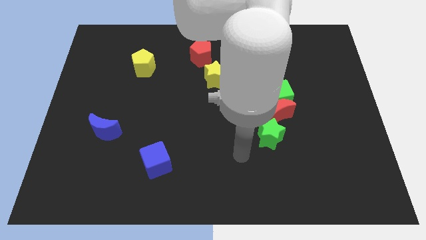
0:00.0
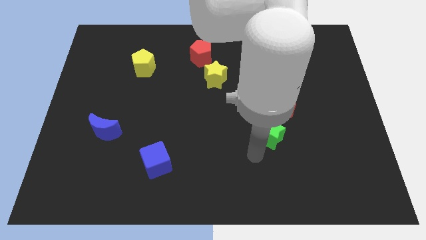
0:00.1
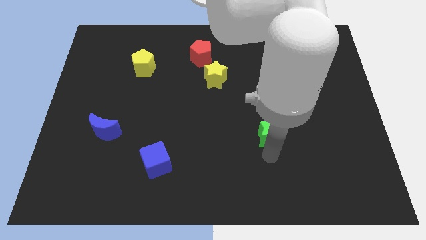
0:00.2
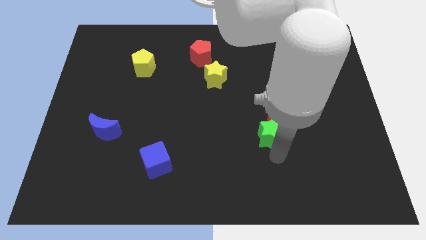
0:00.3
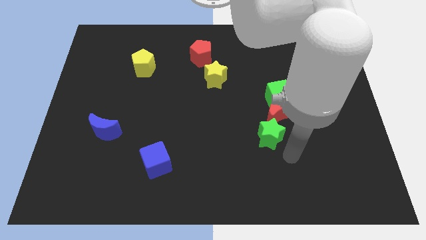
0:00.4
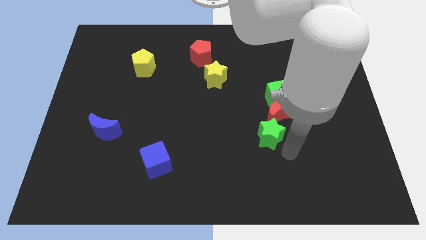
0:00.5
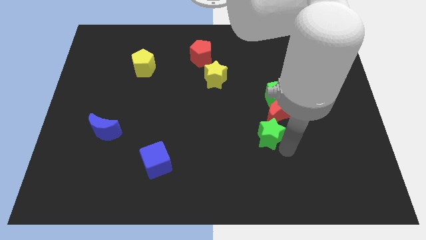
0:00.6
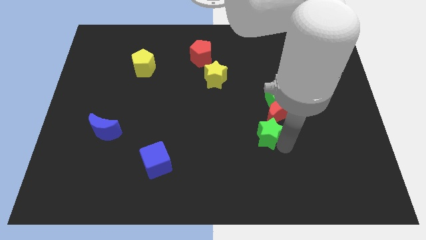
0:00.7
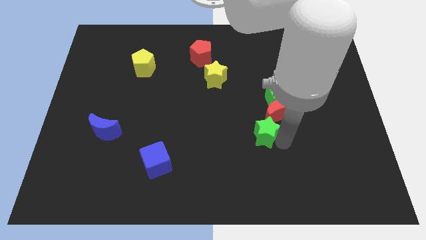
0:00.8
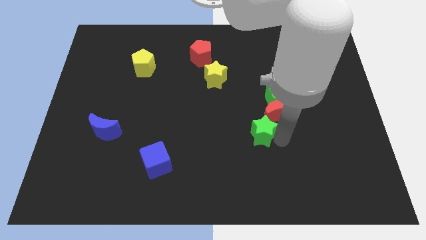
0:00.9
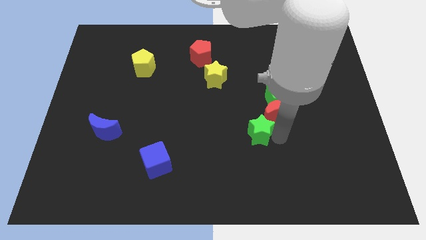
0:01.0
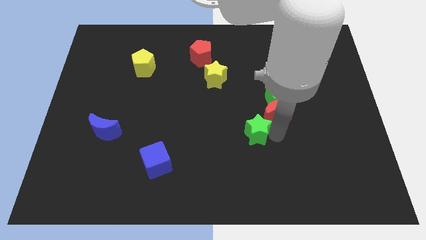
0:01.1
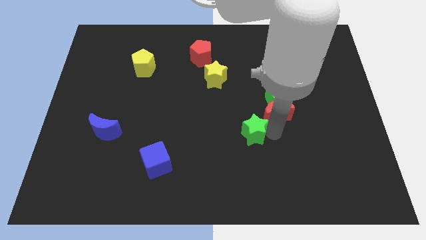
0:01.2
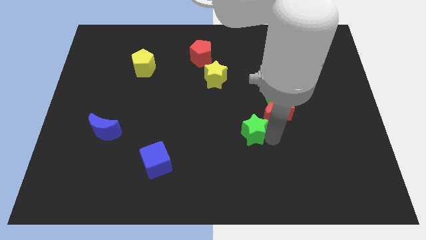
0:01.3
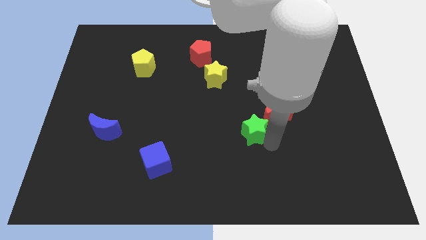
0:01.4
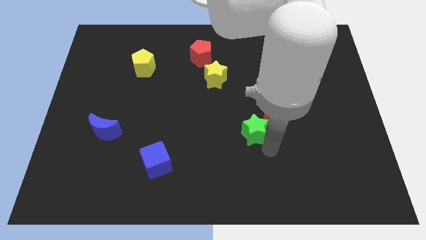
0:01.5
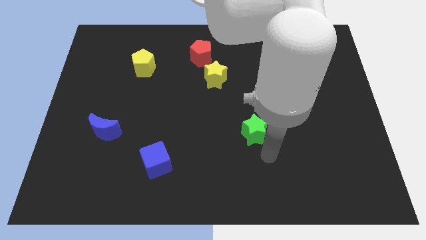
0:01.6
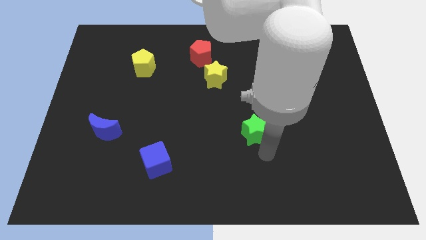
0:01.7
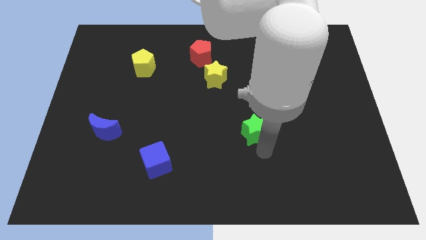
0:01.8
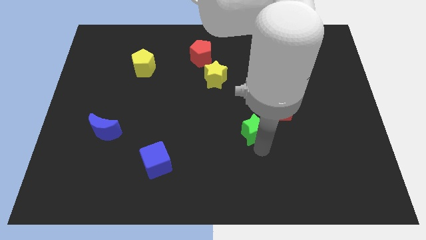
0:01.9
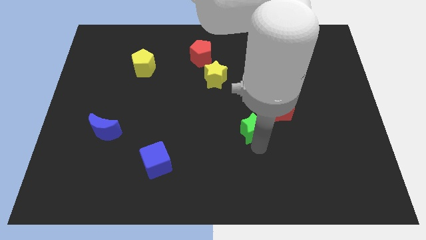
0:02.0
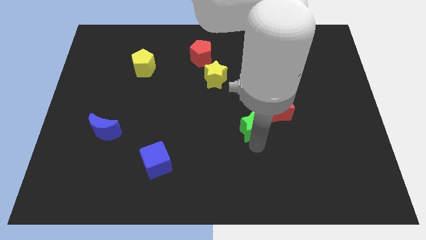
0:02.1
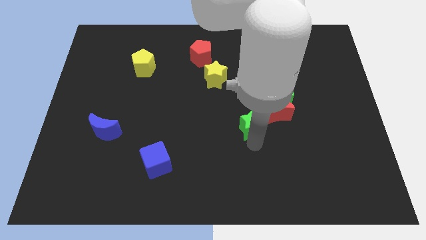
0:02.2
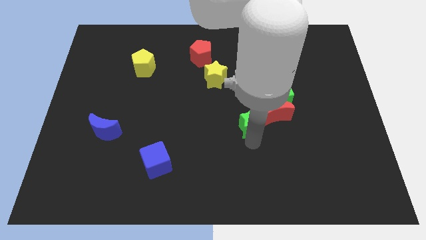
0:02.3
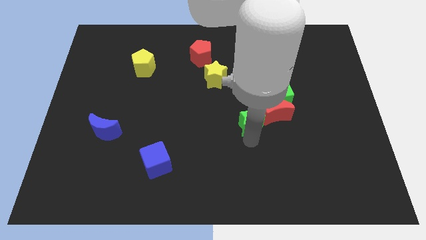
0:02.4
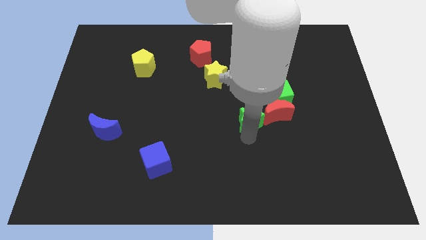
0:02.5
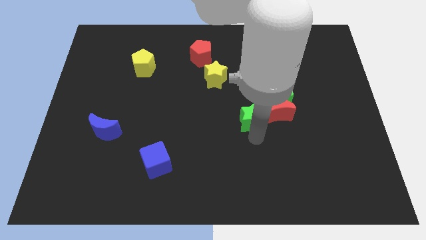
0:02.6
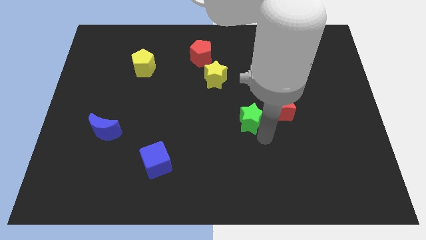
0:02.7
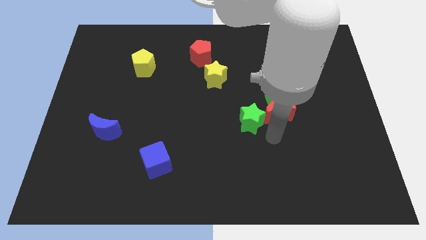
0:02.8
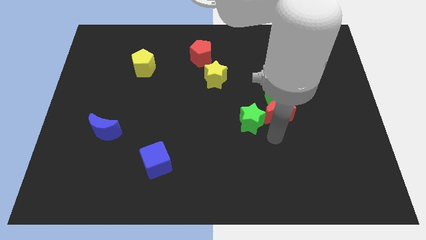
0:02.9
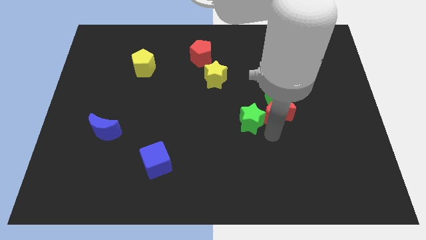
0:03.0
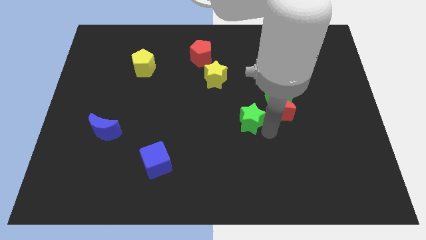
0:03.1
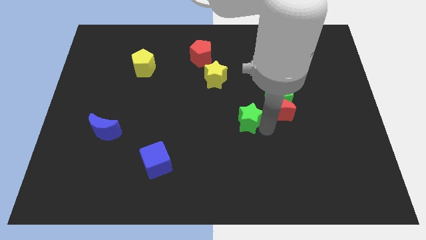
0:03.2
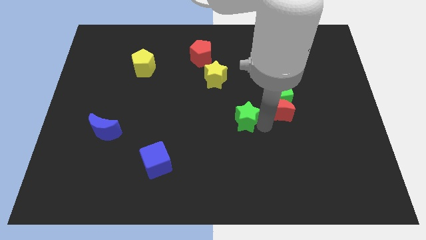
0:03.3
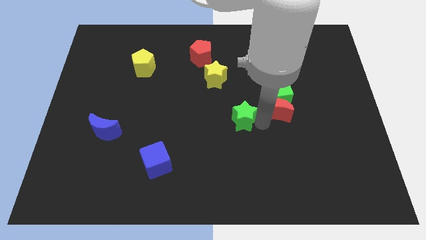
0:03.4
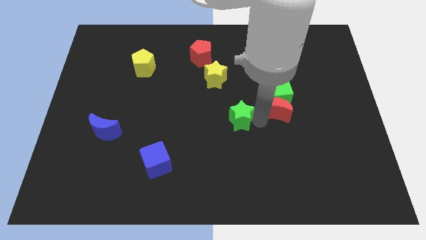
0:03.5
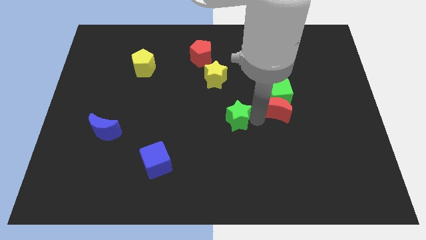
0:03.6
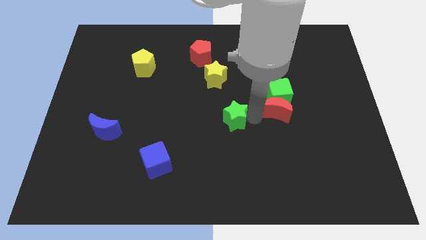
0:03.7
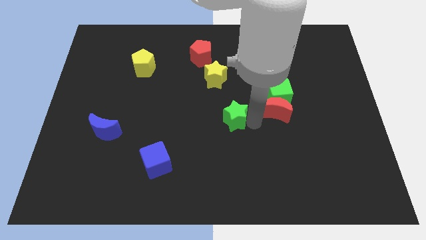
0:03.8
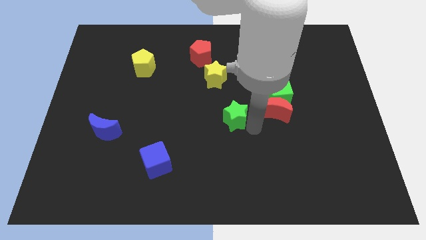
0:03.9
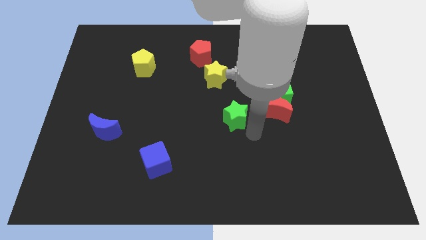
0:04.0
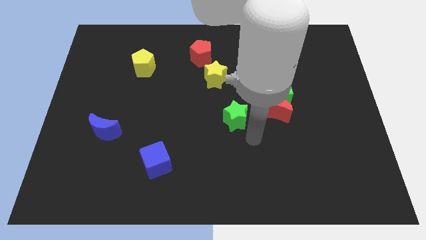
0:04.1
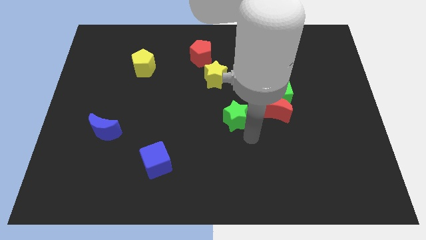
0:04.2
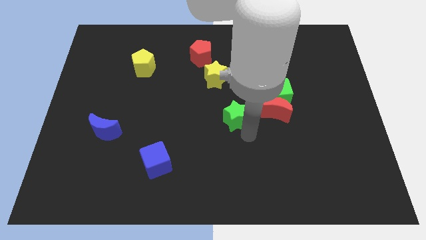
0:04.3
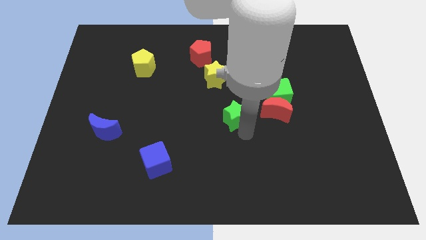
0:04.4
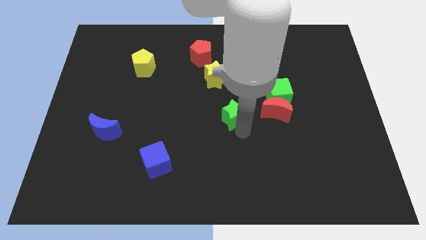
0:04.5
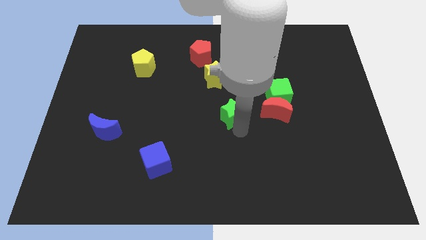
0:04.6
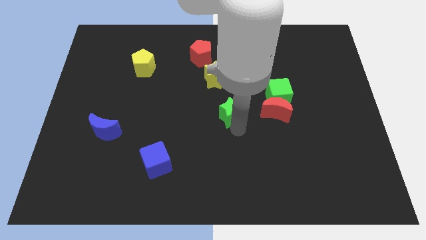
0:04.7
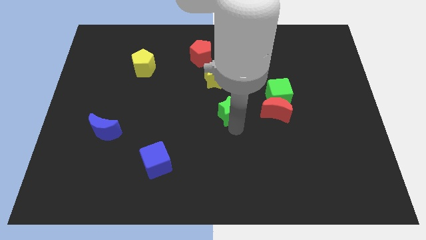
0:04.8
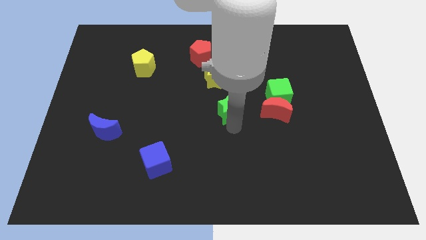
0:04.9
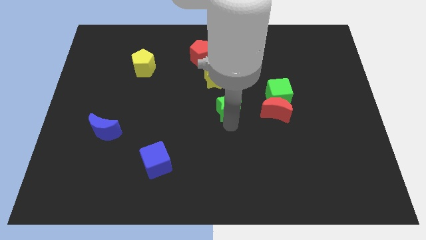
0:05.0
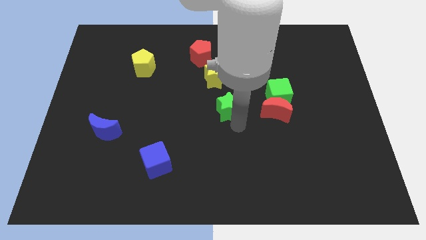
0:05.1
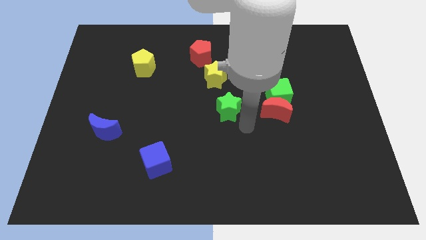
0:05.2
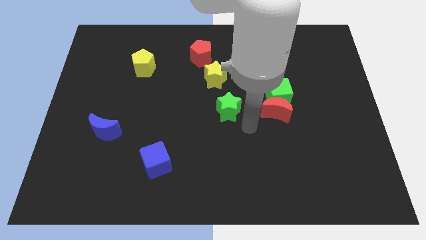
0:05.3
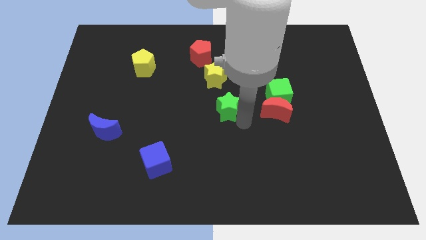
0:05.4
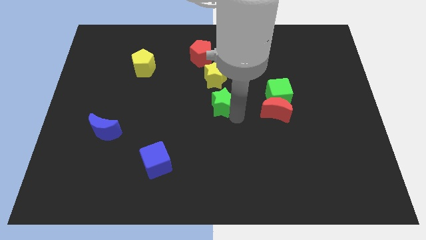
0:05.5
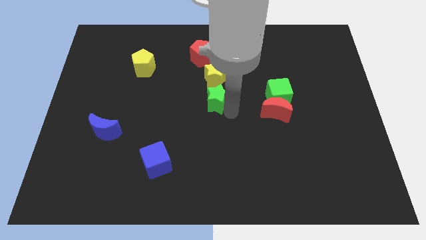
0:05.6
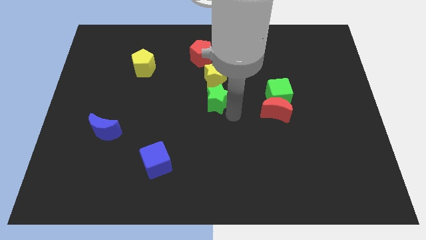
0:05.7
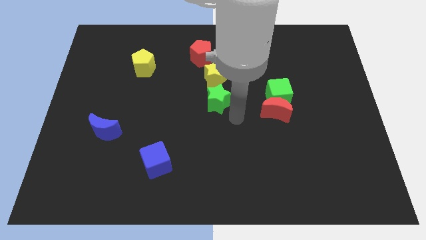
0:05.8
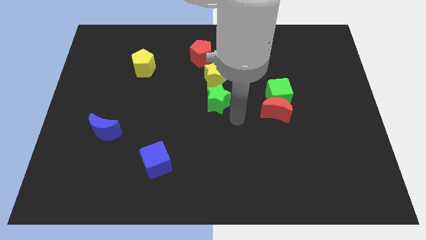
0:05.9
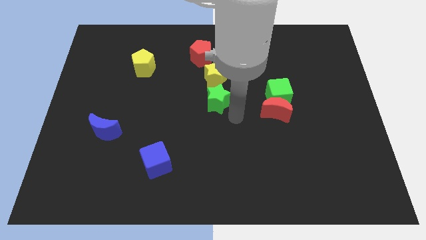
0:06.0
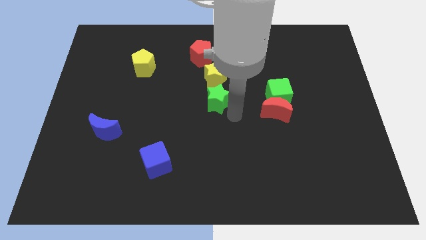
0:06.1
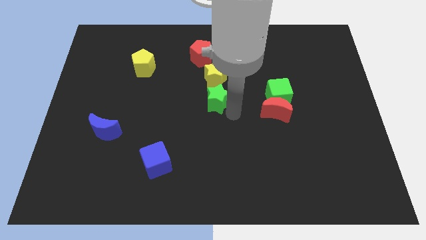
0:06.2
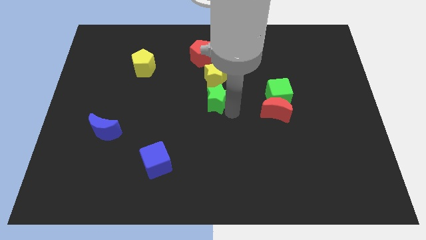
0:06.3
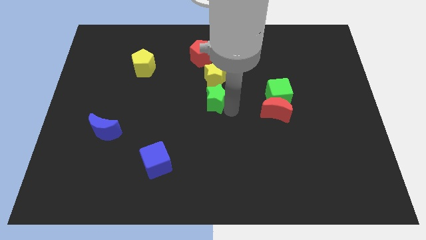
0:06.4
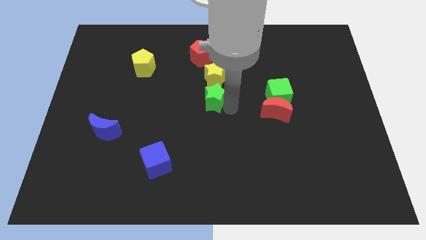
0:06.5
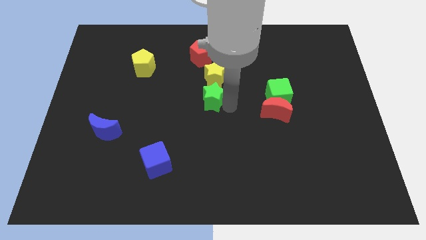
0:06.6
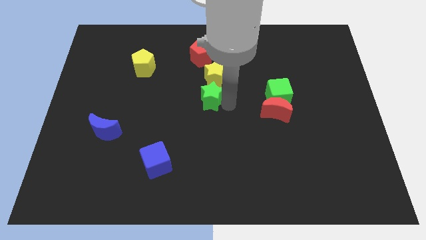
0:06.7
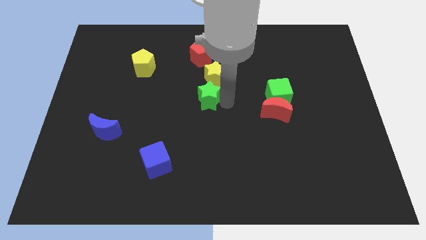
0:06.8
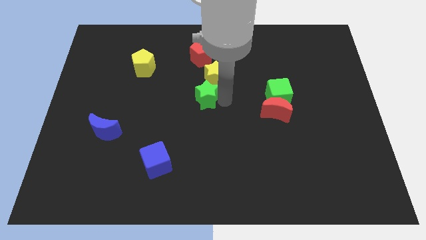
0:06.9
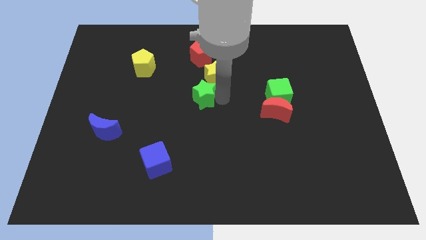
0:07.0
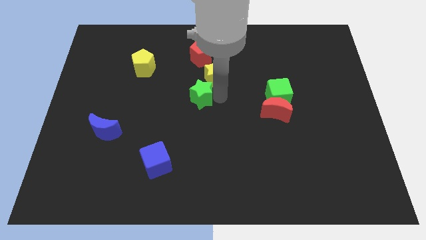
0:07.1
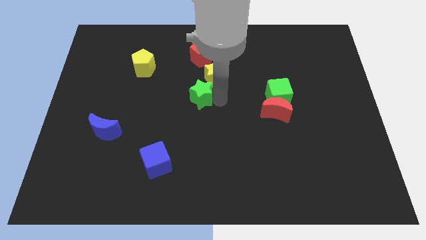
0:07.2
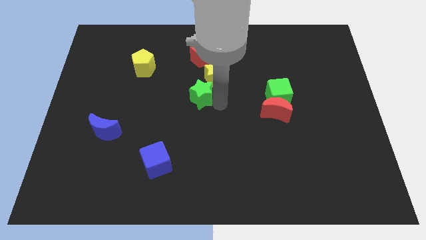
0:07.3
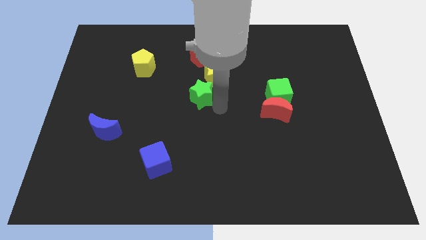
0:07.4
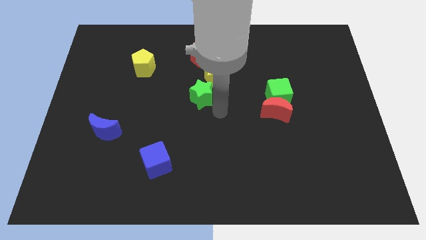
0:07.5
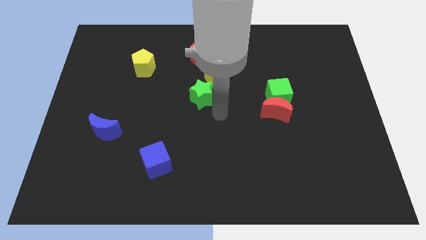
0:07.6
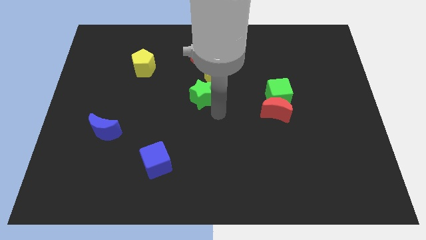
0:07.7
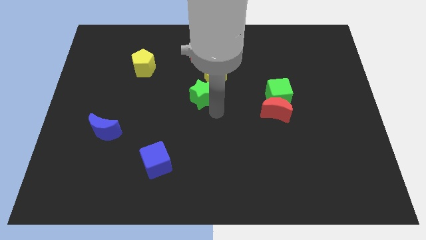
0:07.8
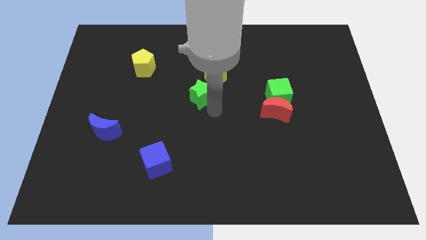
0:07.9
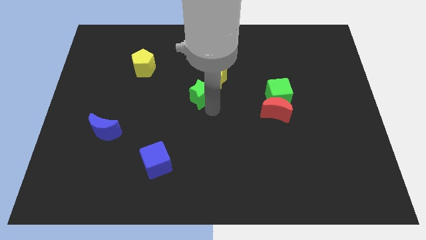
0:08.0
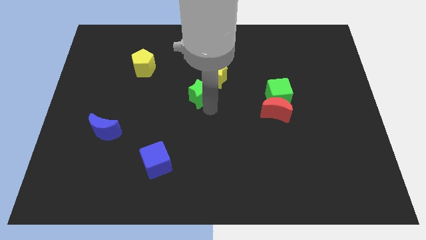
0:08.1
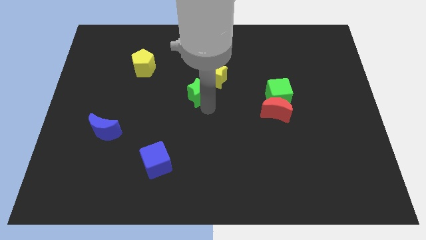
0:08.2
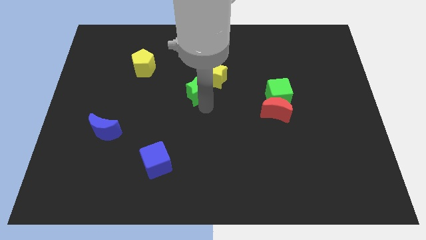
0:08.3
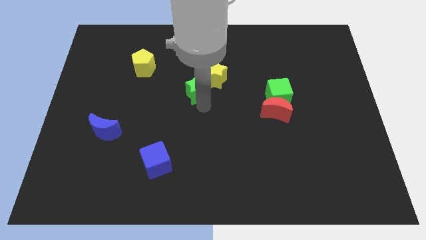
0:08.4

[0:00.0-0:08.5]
slide the green star just left of the yellow star
